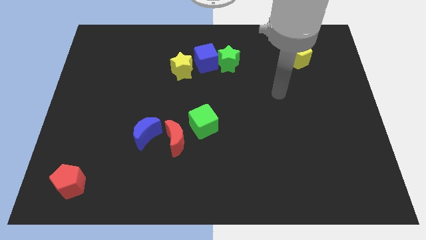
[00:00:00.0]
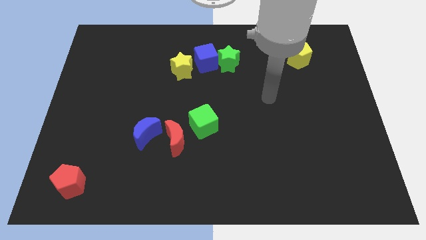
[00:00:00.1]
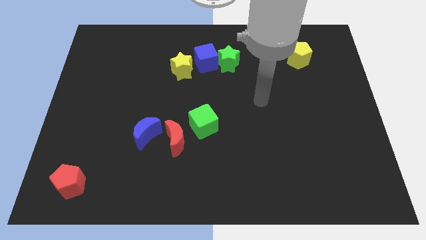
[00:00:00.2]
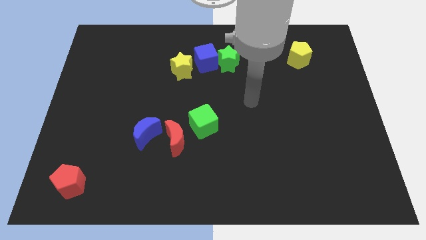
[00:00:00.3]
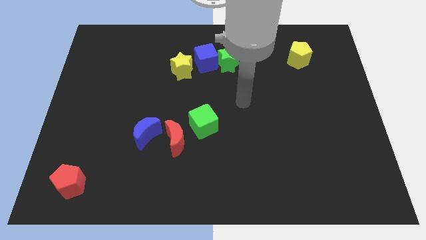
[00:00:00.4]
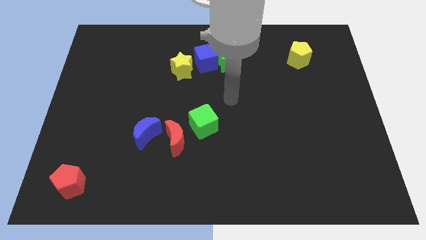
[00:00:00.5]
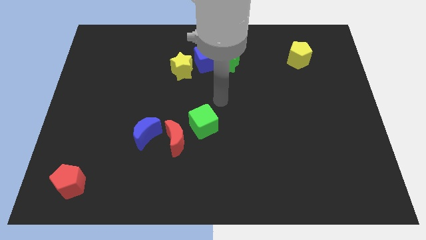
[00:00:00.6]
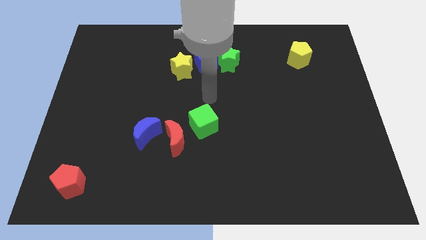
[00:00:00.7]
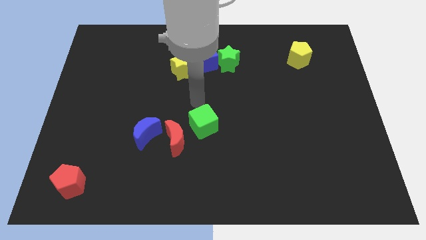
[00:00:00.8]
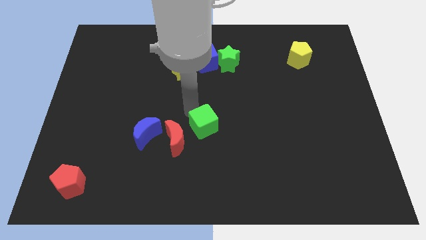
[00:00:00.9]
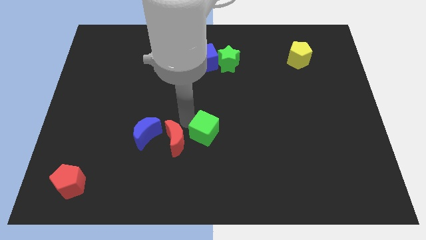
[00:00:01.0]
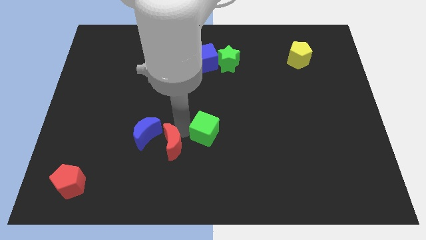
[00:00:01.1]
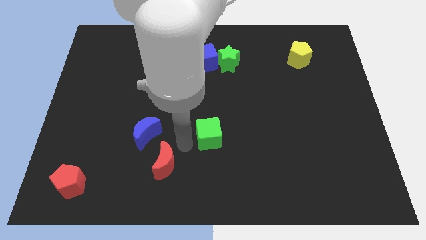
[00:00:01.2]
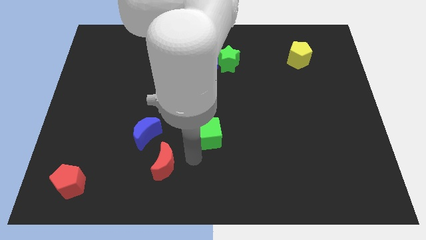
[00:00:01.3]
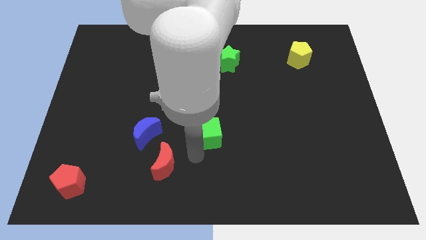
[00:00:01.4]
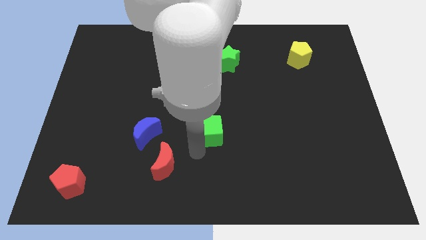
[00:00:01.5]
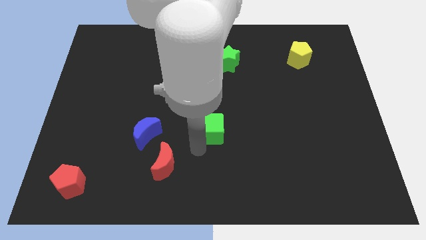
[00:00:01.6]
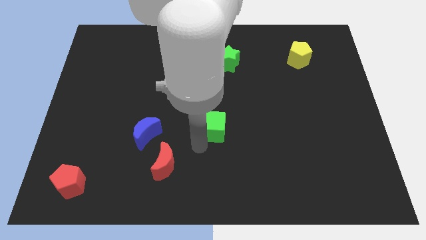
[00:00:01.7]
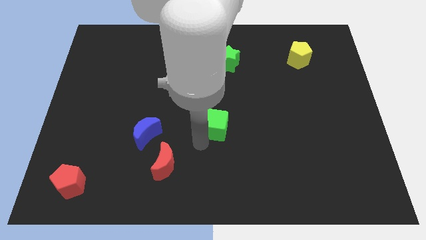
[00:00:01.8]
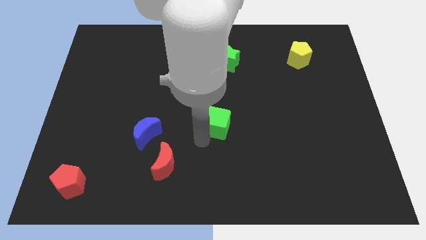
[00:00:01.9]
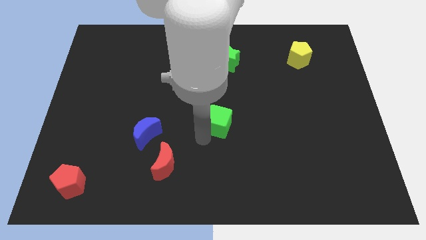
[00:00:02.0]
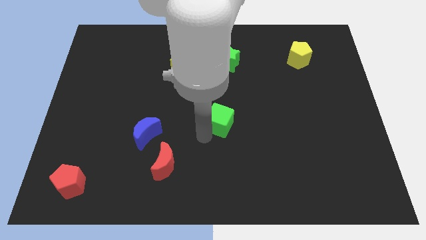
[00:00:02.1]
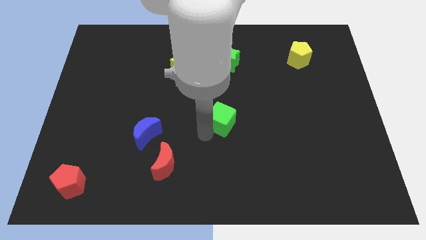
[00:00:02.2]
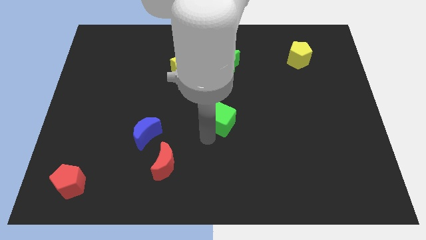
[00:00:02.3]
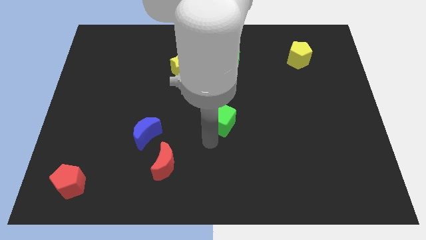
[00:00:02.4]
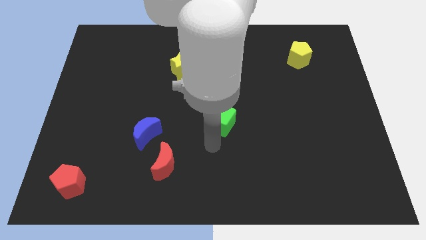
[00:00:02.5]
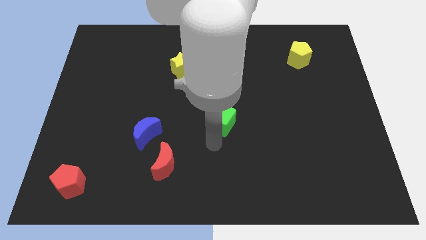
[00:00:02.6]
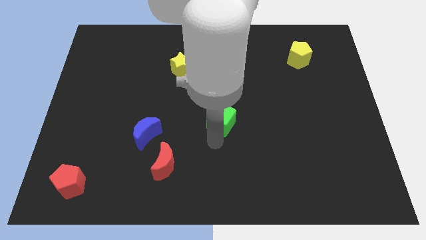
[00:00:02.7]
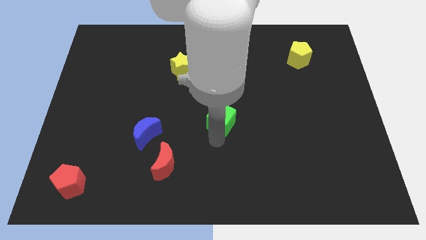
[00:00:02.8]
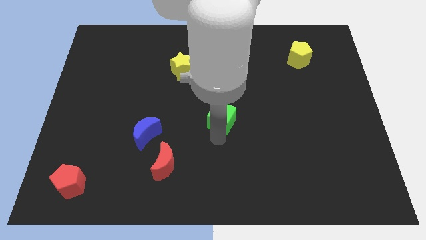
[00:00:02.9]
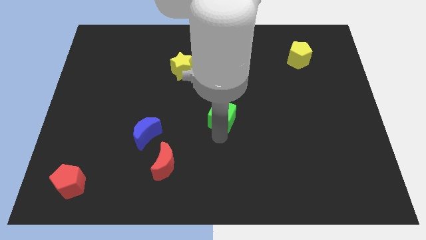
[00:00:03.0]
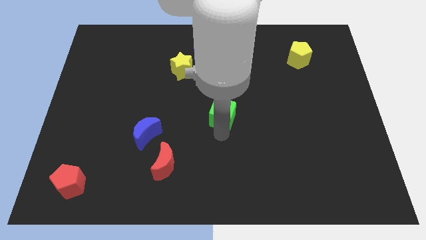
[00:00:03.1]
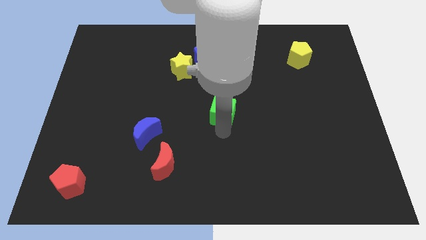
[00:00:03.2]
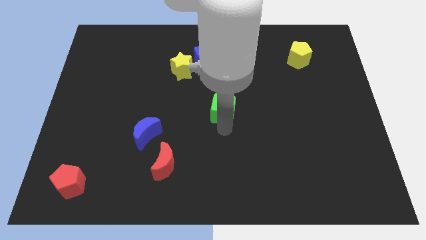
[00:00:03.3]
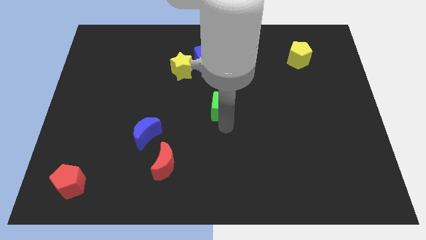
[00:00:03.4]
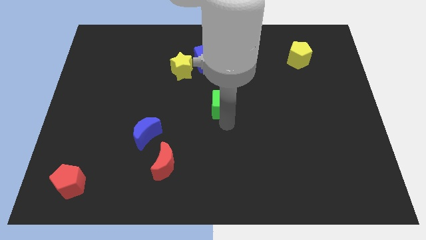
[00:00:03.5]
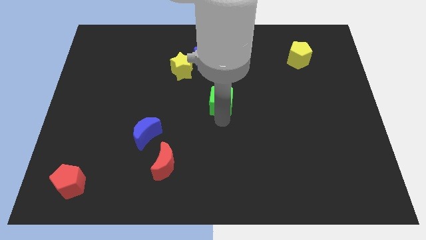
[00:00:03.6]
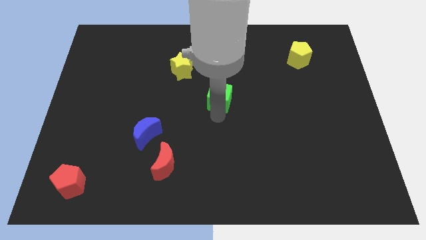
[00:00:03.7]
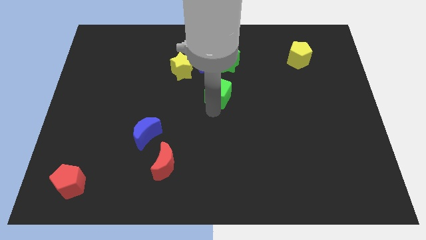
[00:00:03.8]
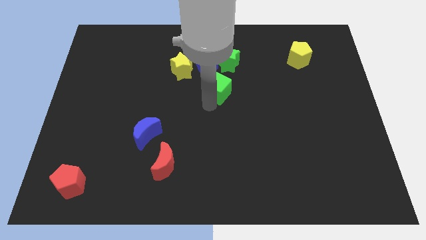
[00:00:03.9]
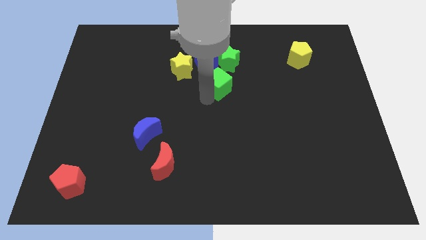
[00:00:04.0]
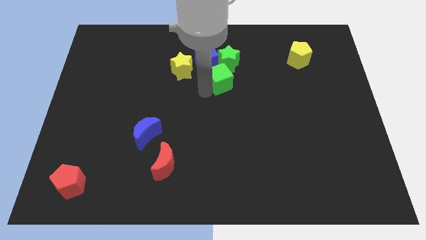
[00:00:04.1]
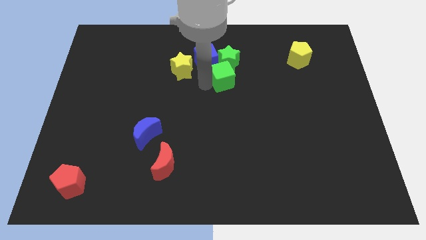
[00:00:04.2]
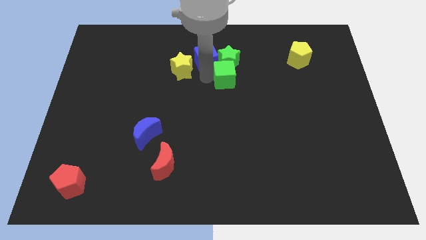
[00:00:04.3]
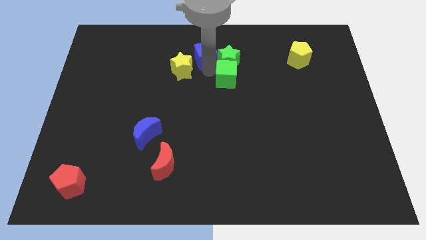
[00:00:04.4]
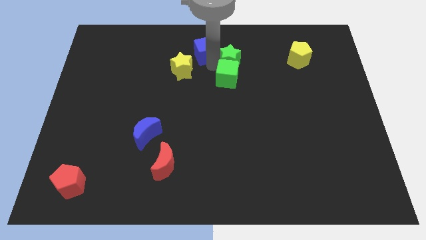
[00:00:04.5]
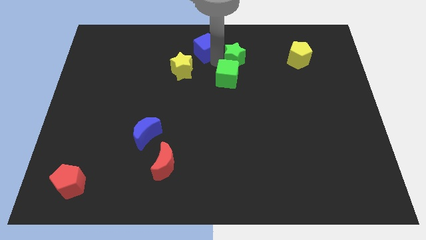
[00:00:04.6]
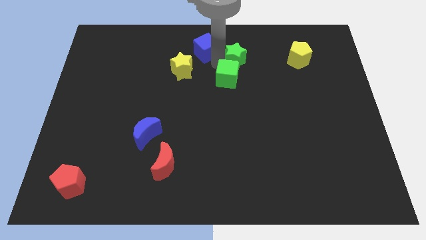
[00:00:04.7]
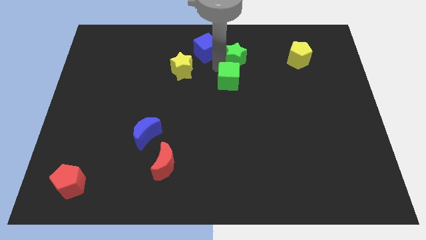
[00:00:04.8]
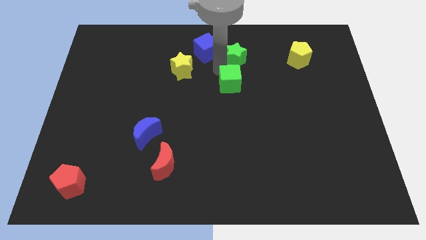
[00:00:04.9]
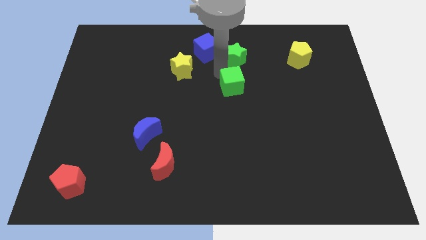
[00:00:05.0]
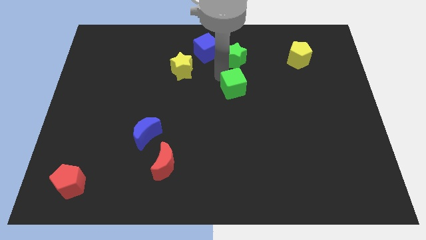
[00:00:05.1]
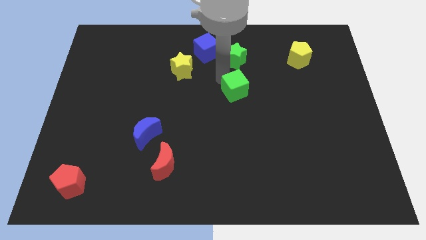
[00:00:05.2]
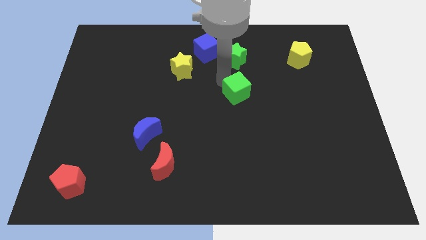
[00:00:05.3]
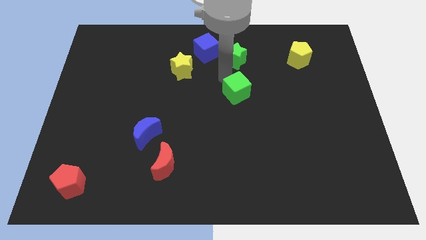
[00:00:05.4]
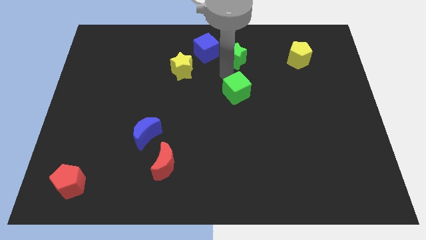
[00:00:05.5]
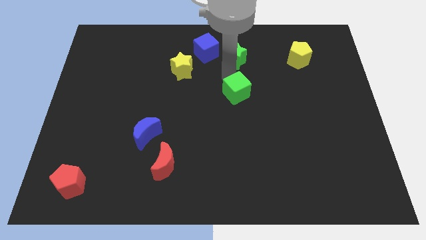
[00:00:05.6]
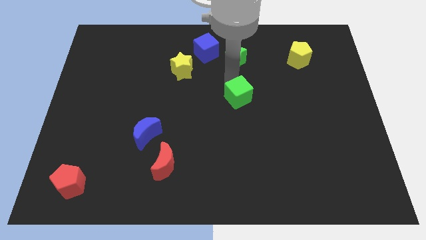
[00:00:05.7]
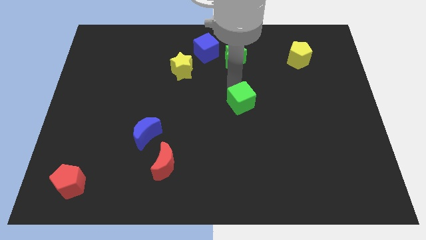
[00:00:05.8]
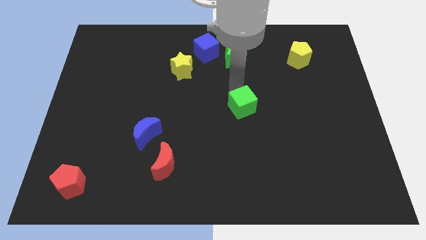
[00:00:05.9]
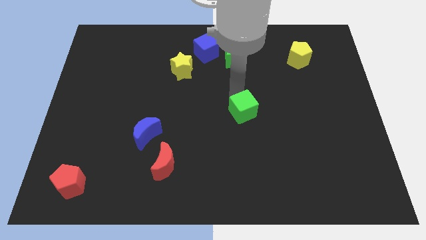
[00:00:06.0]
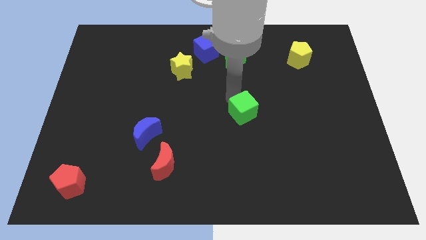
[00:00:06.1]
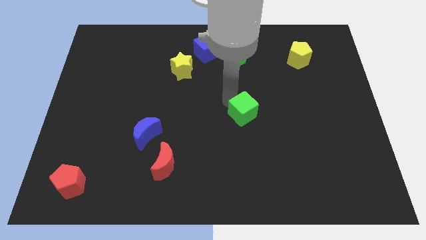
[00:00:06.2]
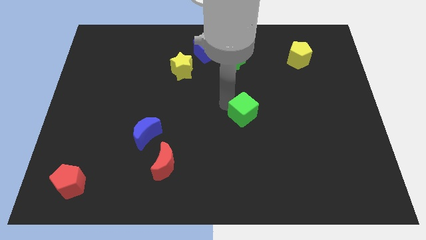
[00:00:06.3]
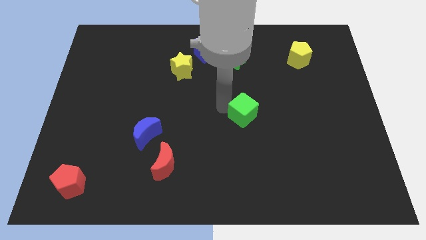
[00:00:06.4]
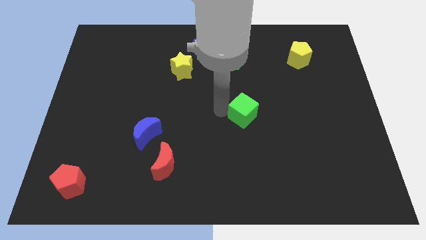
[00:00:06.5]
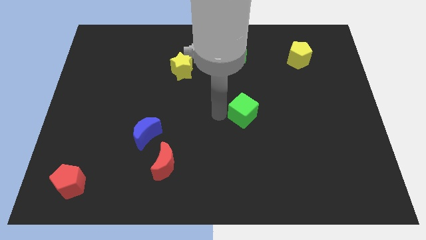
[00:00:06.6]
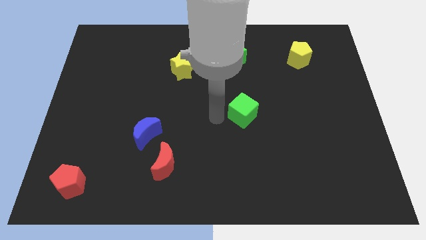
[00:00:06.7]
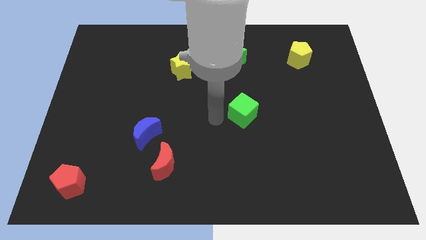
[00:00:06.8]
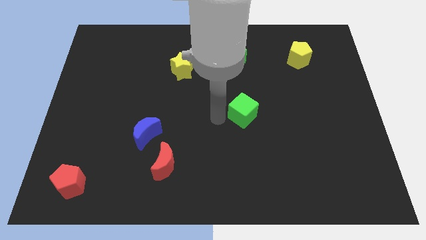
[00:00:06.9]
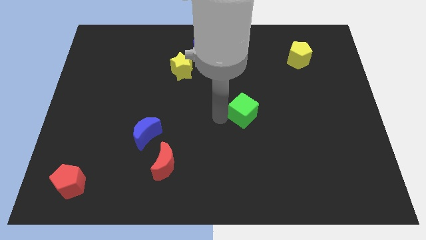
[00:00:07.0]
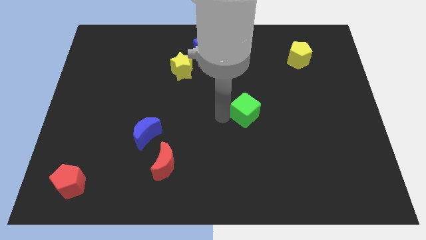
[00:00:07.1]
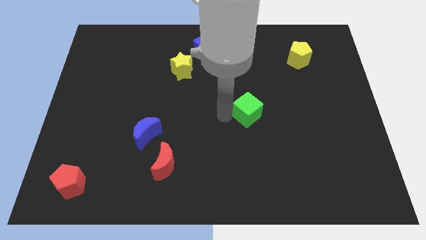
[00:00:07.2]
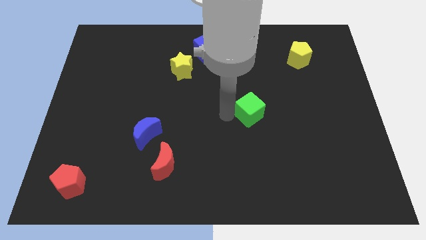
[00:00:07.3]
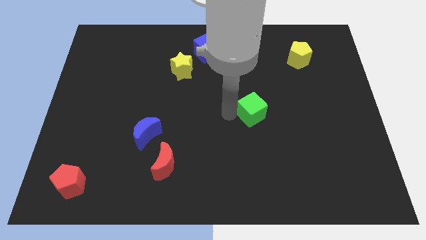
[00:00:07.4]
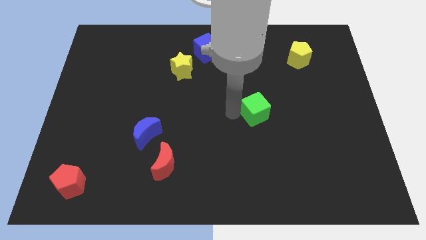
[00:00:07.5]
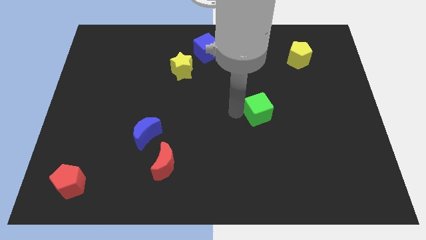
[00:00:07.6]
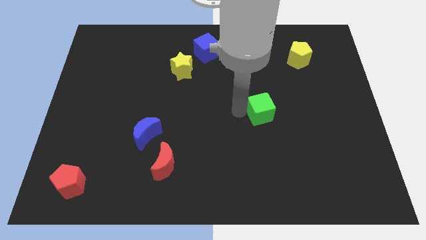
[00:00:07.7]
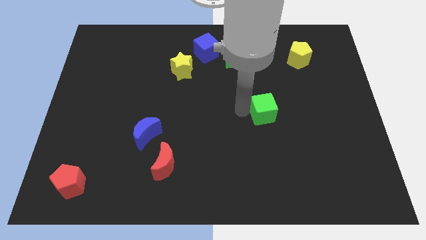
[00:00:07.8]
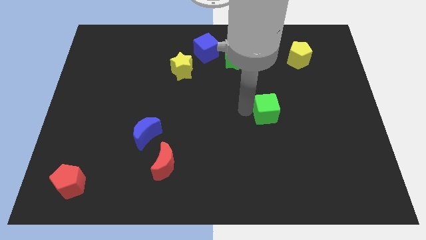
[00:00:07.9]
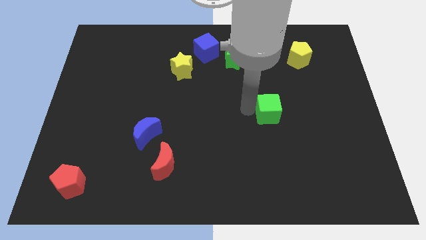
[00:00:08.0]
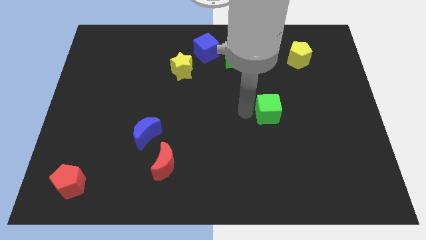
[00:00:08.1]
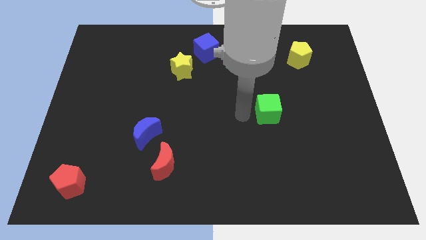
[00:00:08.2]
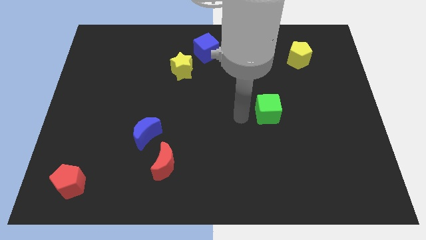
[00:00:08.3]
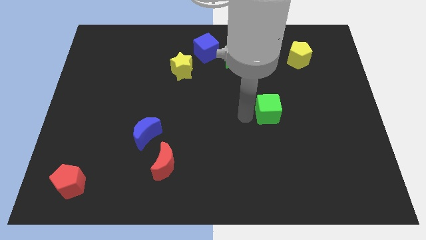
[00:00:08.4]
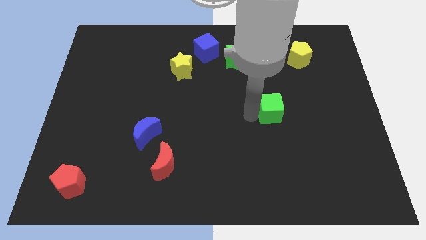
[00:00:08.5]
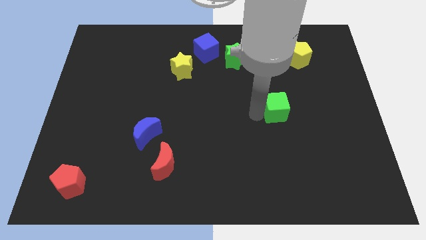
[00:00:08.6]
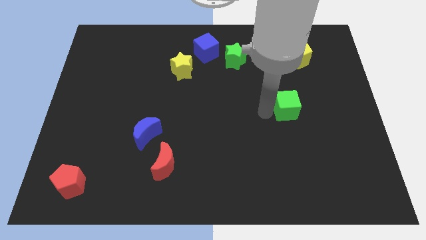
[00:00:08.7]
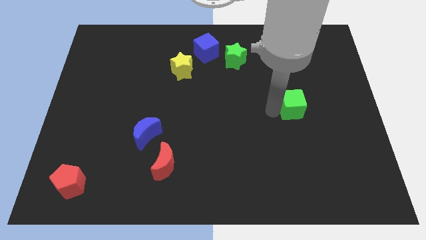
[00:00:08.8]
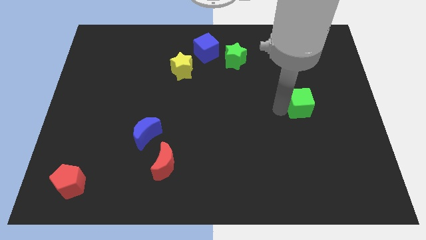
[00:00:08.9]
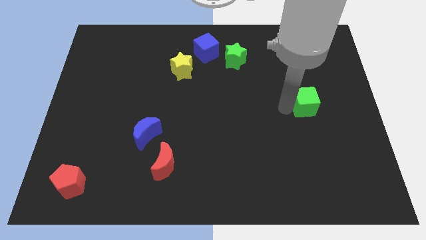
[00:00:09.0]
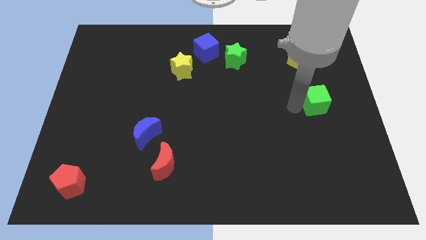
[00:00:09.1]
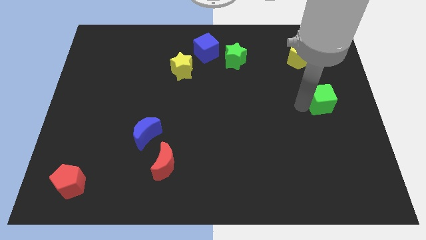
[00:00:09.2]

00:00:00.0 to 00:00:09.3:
move the green cube to the center right
